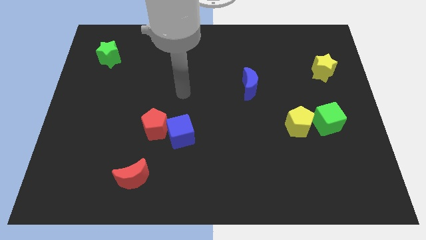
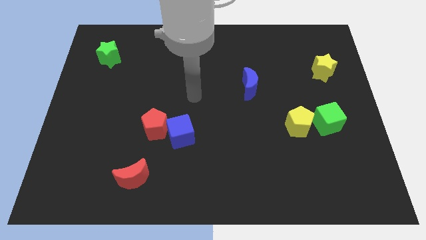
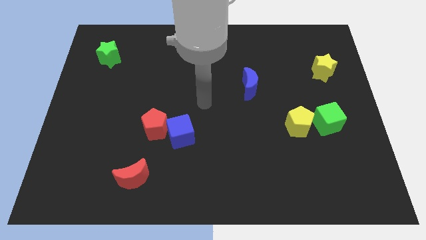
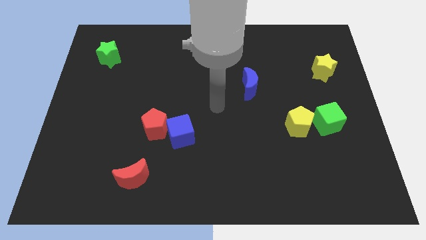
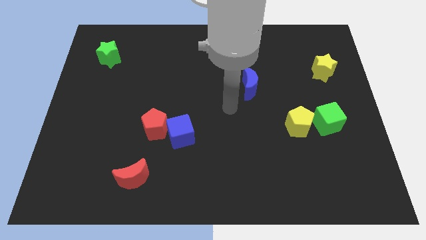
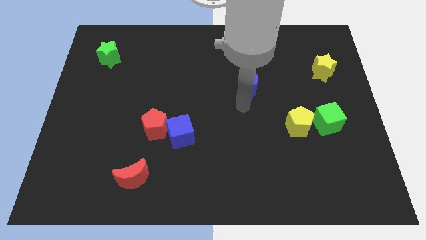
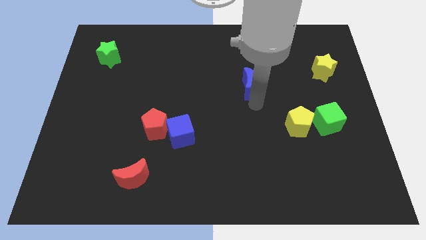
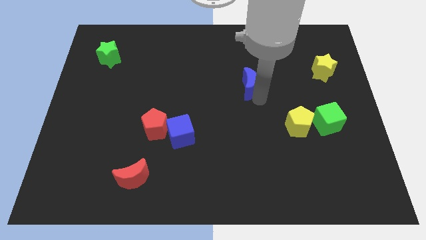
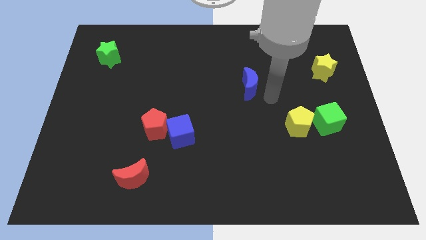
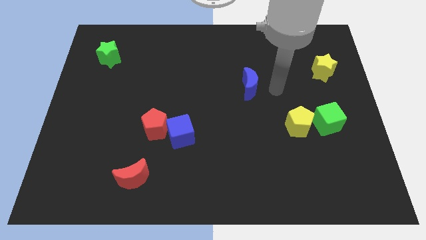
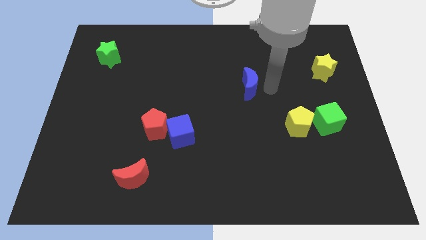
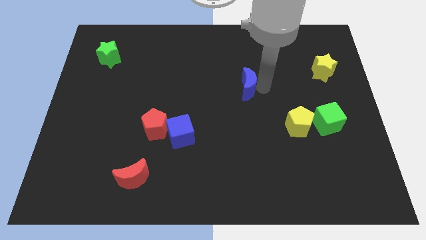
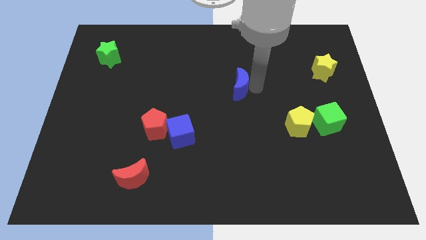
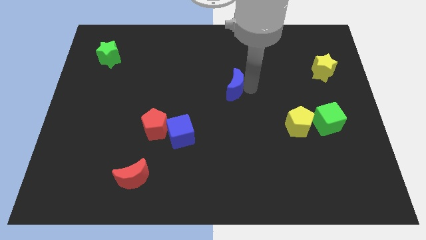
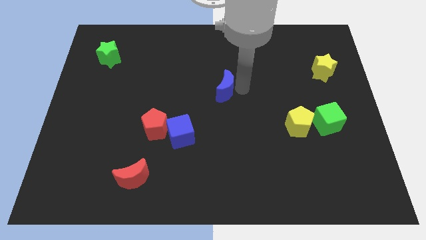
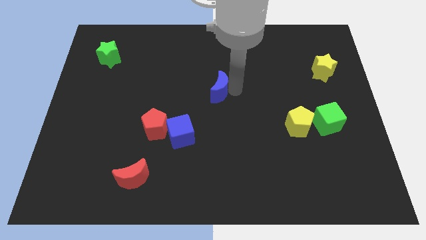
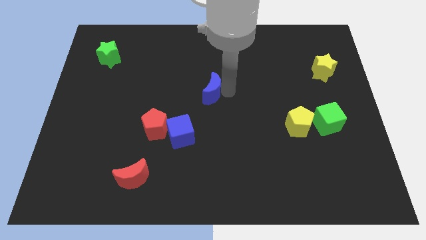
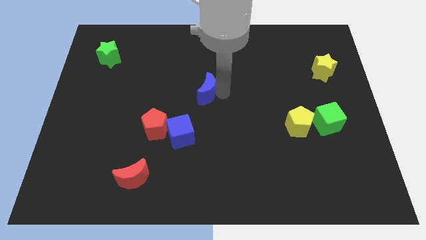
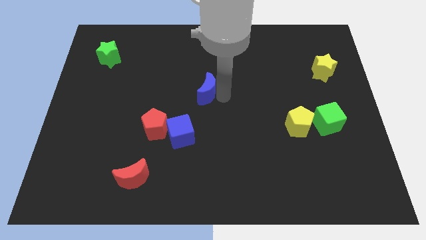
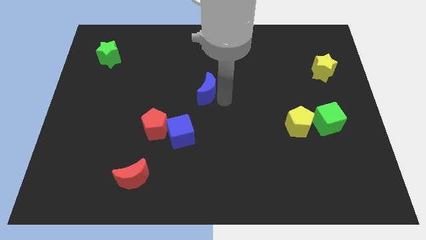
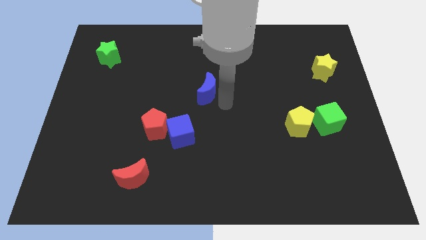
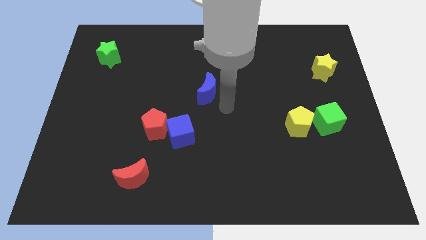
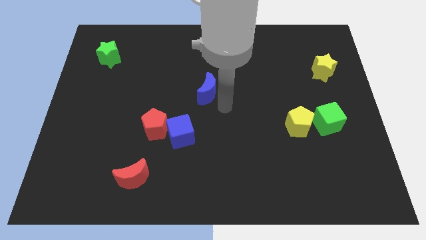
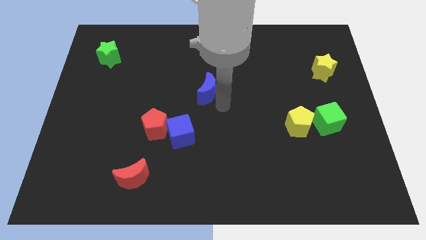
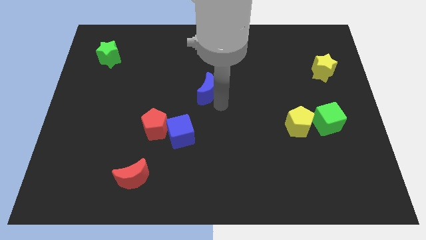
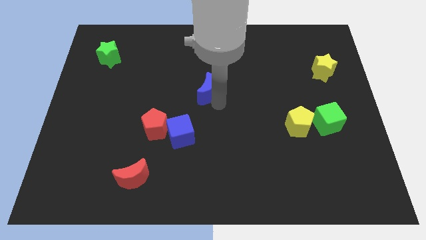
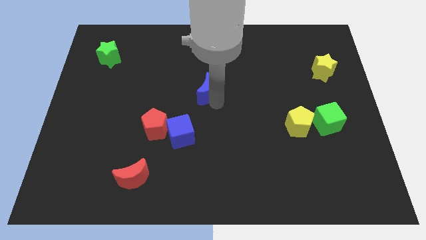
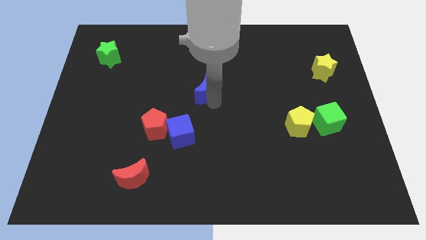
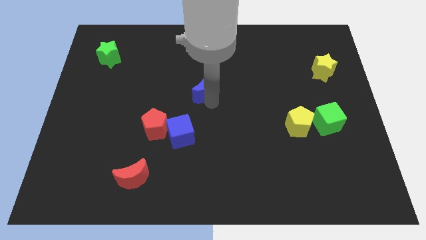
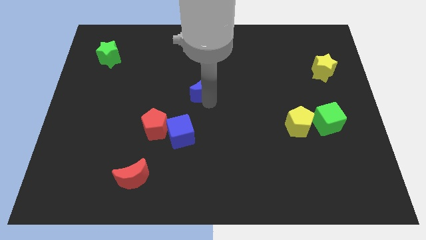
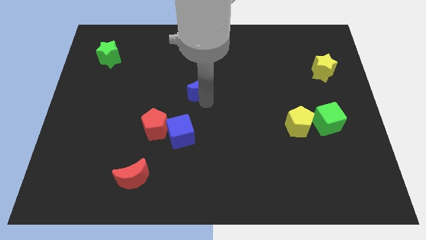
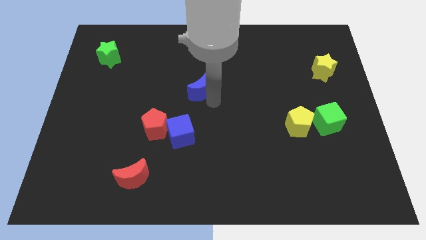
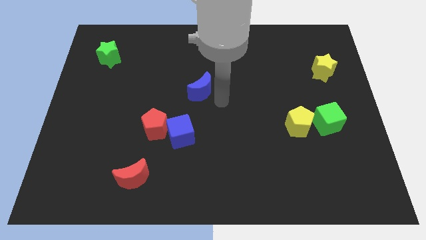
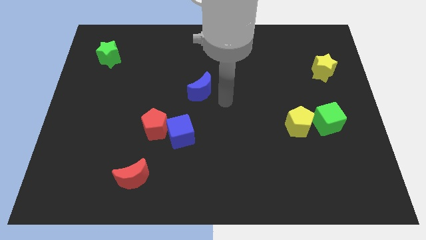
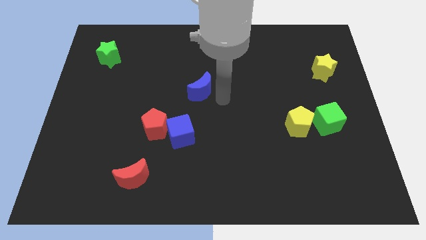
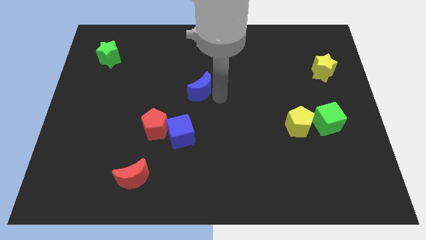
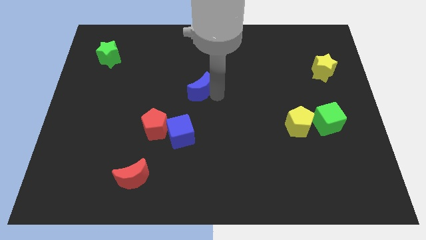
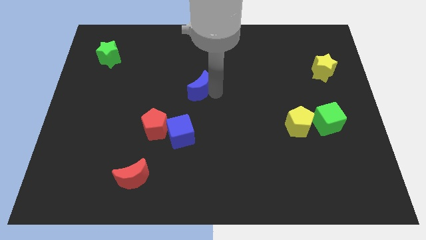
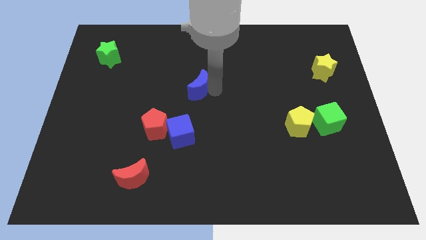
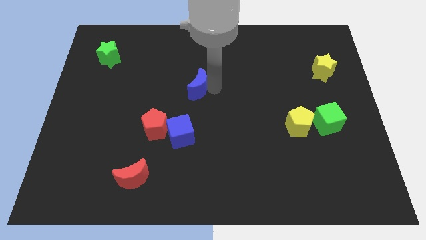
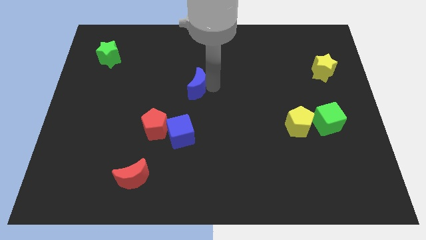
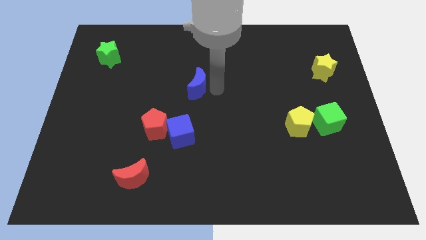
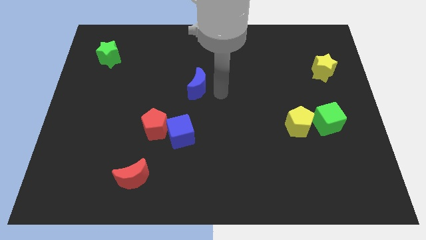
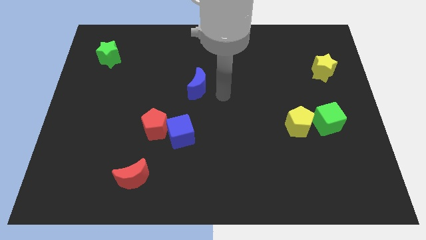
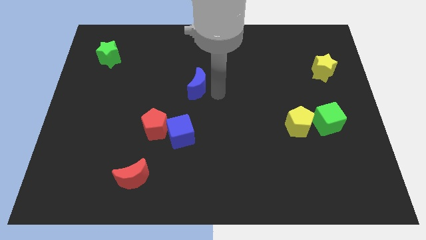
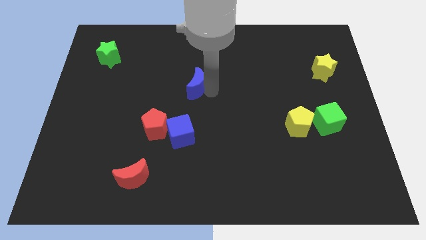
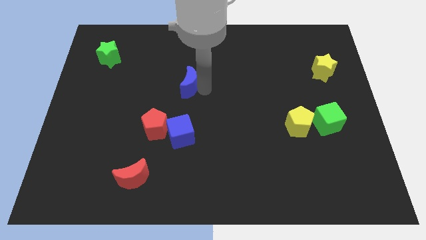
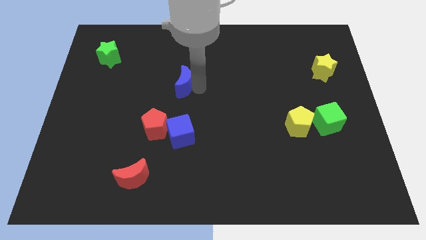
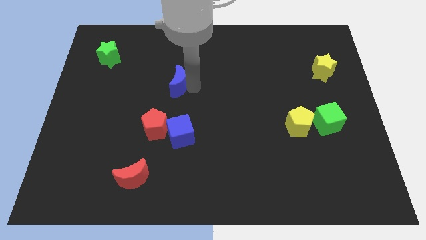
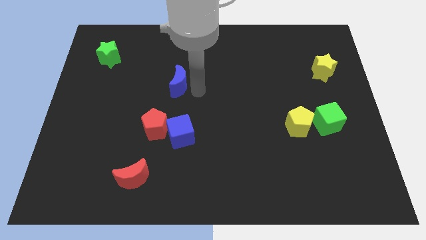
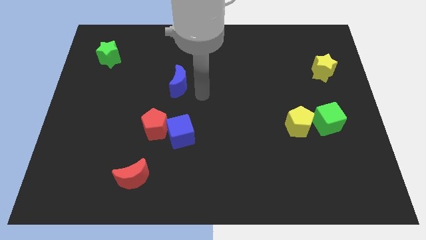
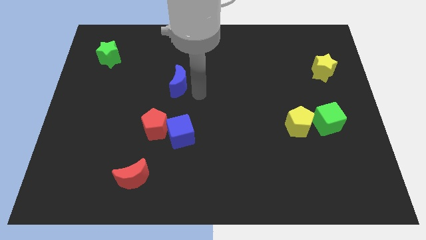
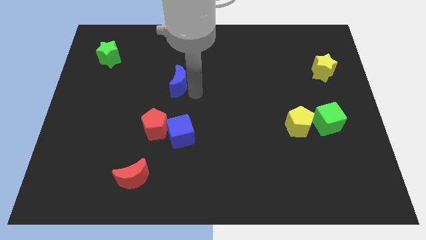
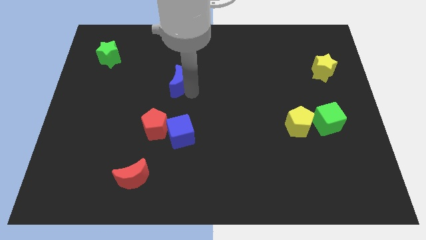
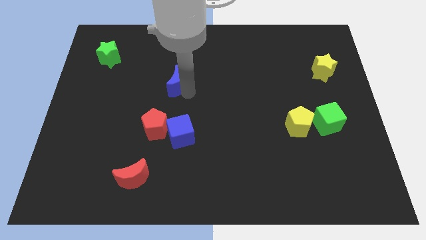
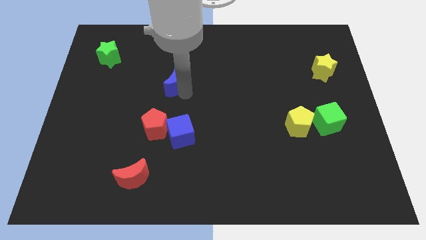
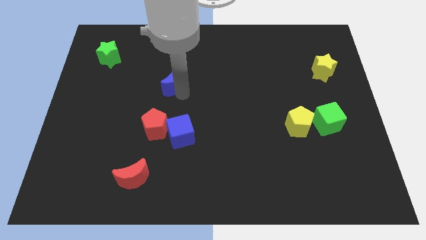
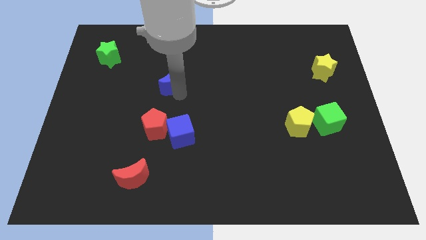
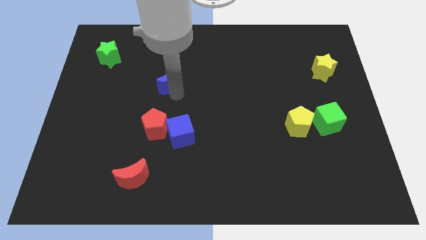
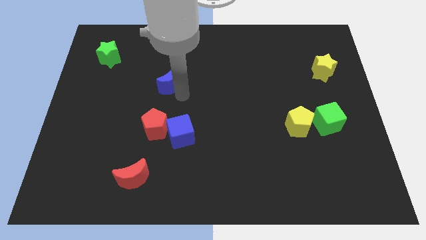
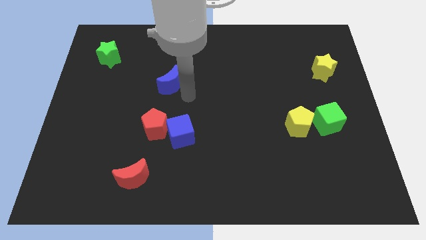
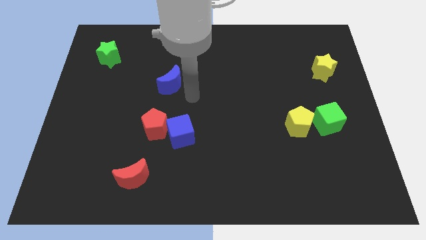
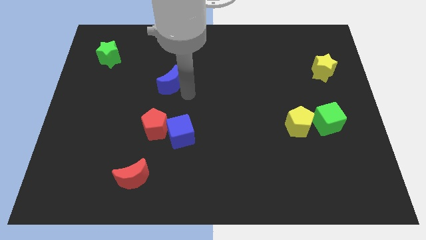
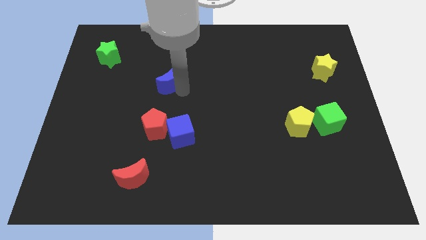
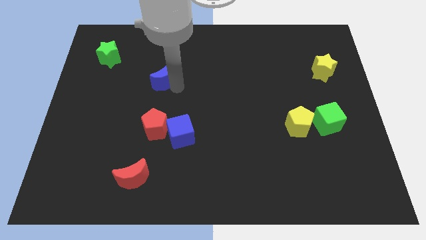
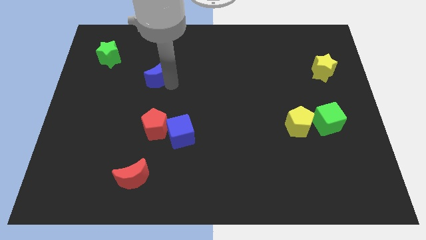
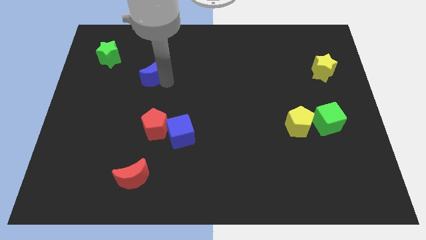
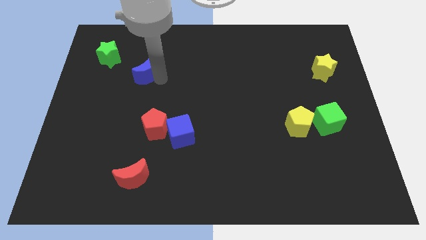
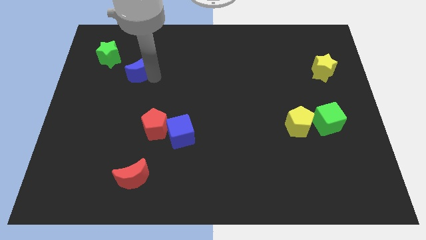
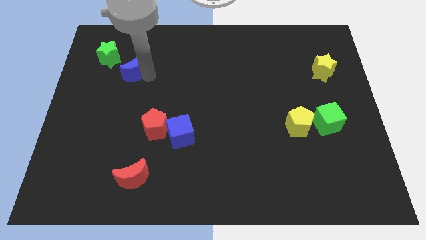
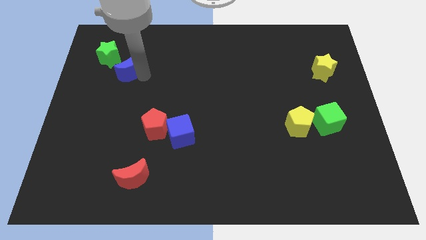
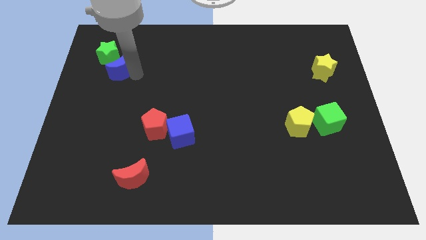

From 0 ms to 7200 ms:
put the blue moon to the green star
